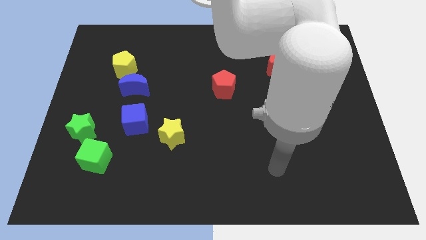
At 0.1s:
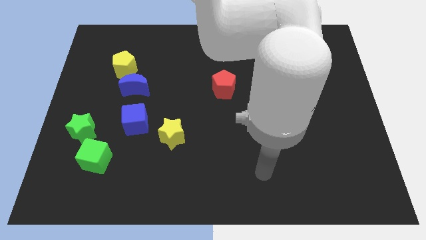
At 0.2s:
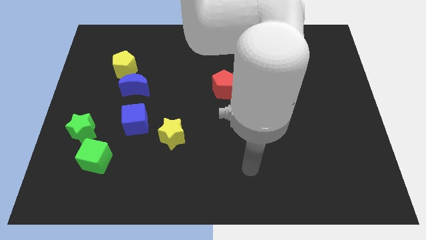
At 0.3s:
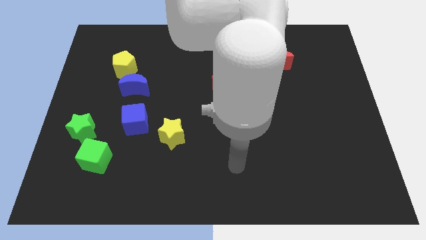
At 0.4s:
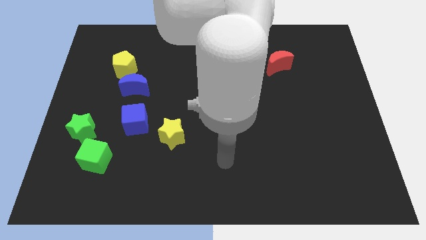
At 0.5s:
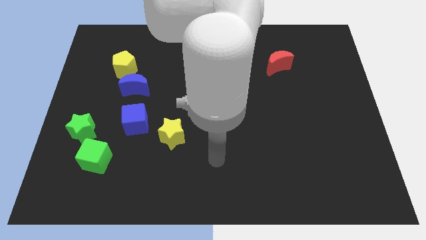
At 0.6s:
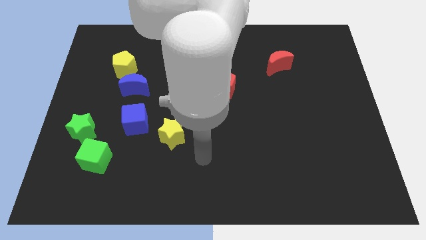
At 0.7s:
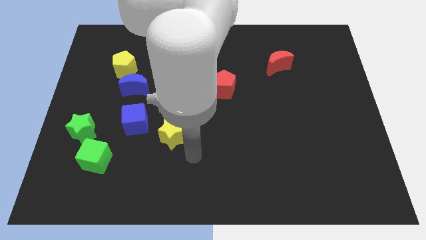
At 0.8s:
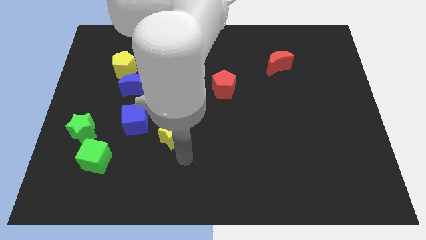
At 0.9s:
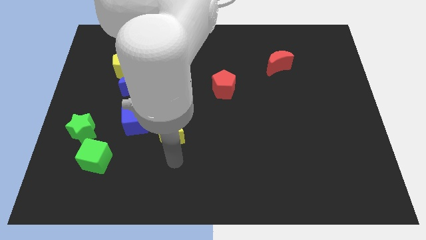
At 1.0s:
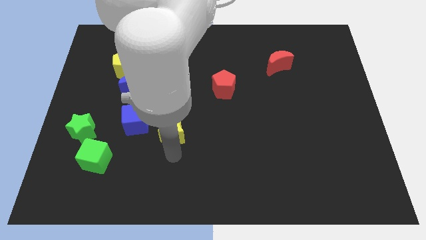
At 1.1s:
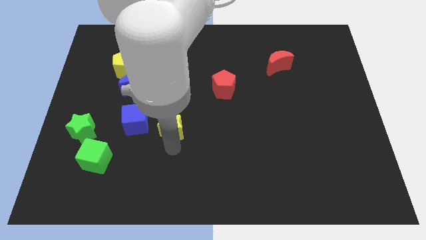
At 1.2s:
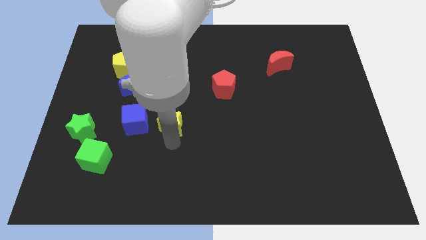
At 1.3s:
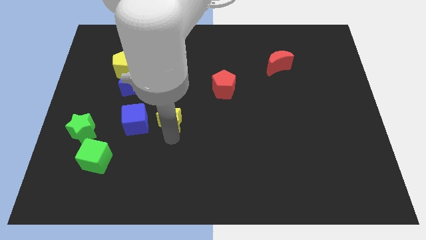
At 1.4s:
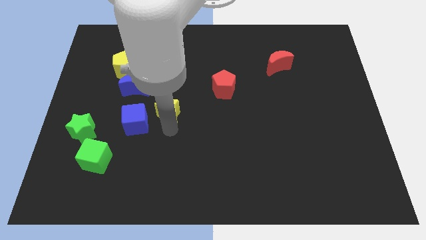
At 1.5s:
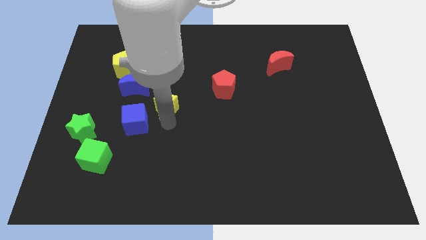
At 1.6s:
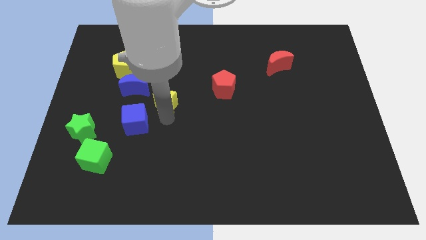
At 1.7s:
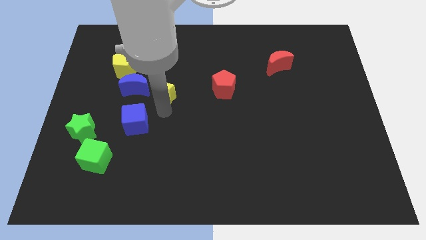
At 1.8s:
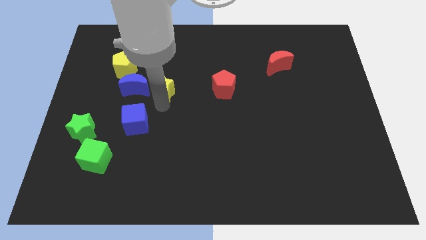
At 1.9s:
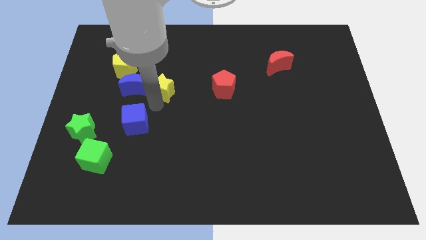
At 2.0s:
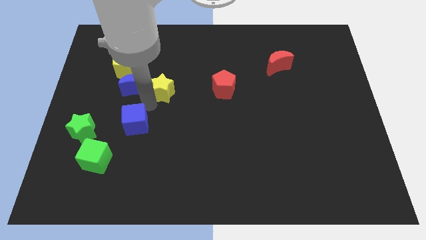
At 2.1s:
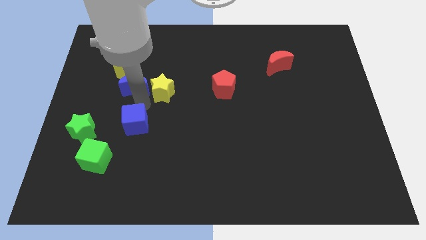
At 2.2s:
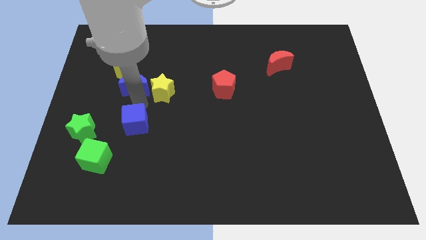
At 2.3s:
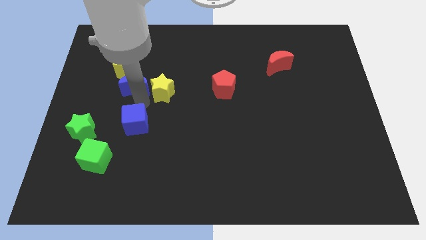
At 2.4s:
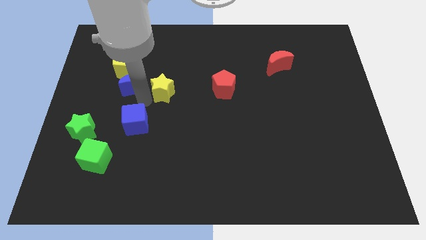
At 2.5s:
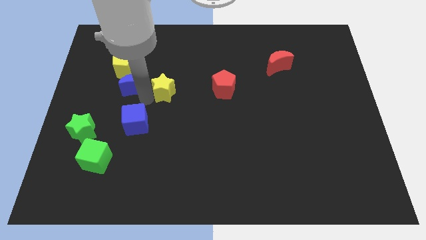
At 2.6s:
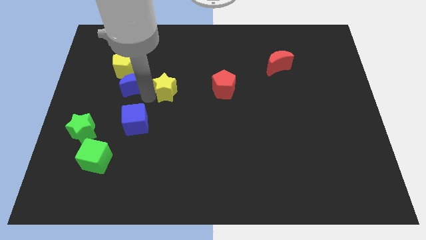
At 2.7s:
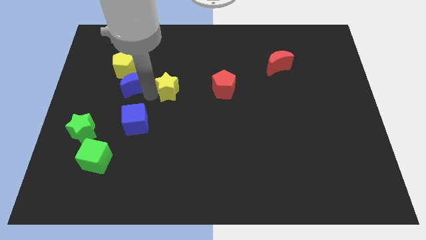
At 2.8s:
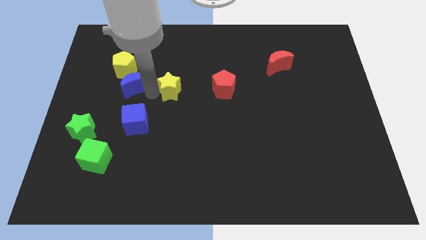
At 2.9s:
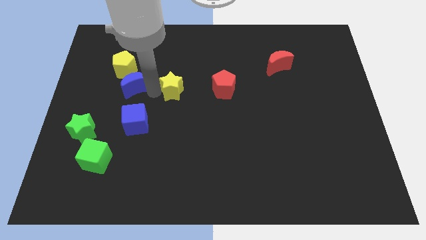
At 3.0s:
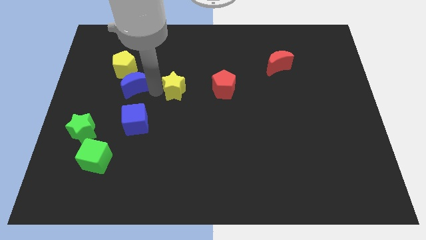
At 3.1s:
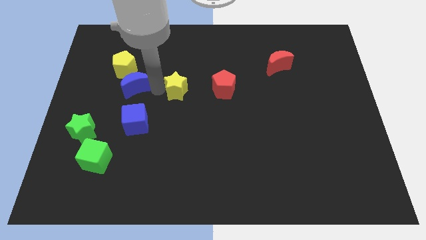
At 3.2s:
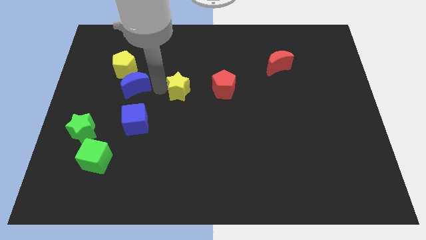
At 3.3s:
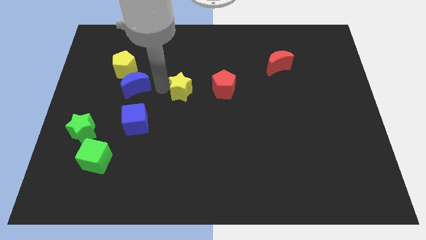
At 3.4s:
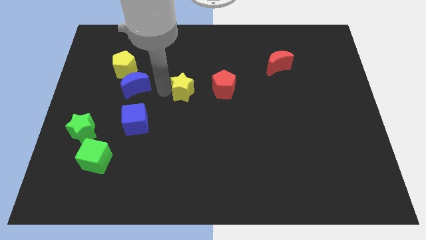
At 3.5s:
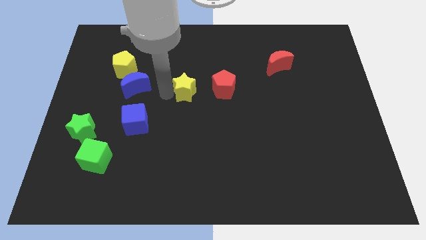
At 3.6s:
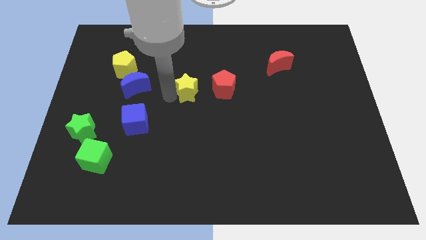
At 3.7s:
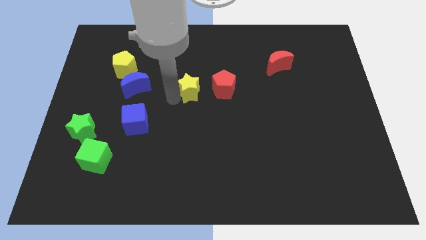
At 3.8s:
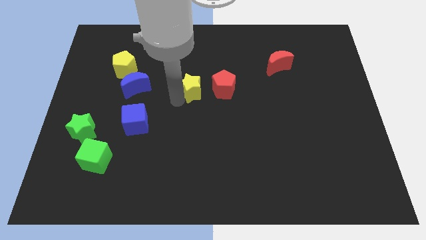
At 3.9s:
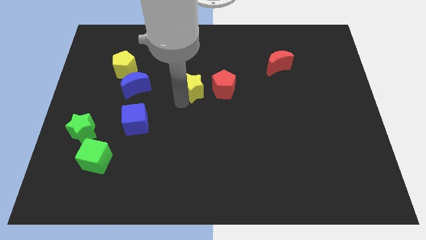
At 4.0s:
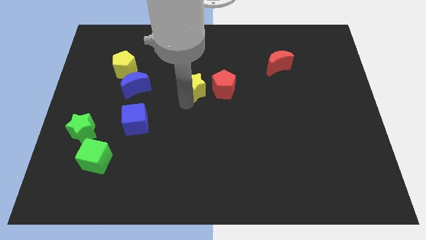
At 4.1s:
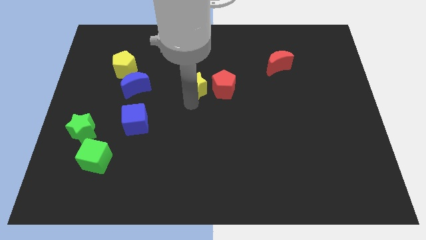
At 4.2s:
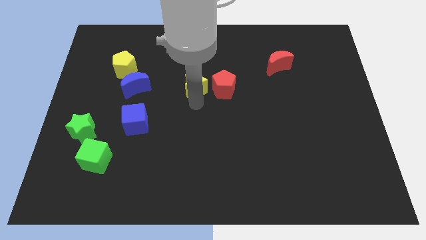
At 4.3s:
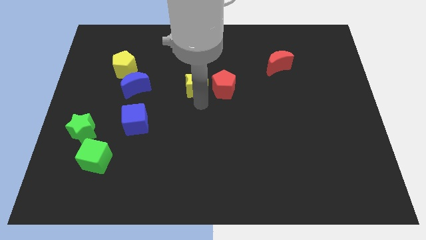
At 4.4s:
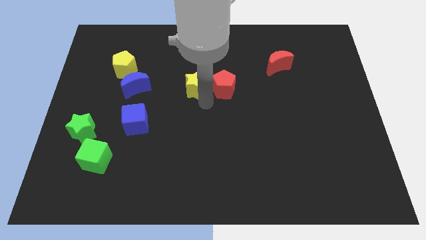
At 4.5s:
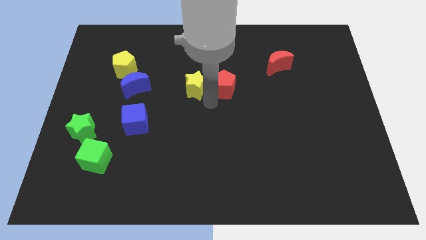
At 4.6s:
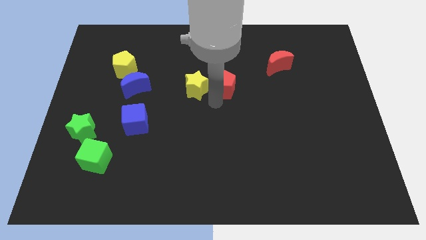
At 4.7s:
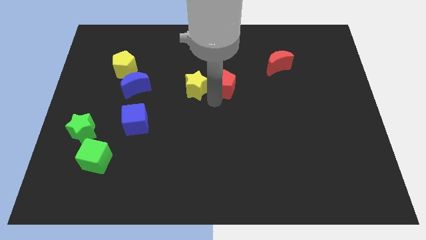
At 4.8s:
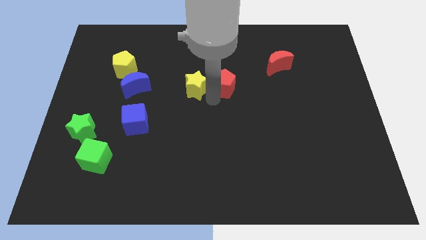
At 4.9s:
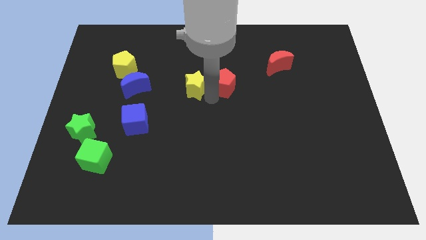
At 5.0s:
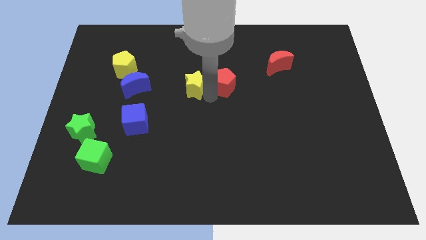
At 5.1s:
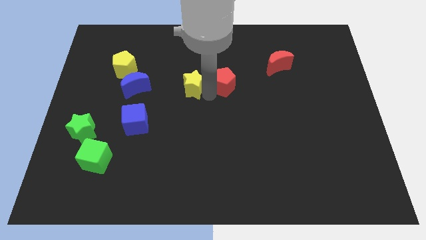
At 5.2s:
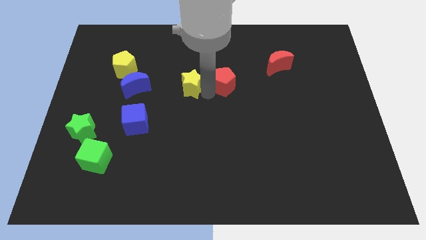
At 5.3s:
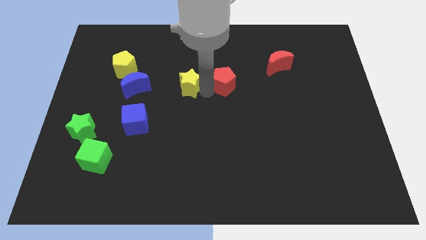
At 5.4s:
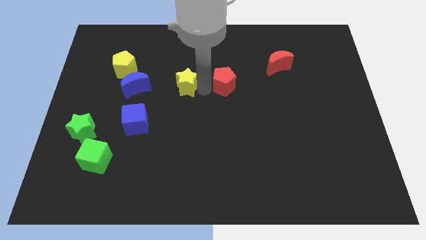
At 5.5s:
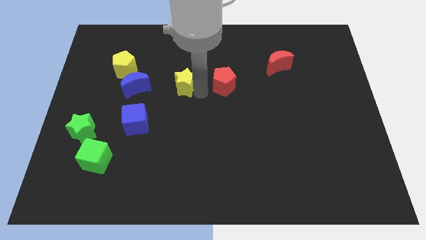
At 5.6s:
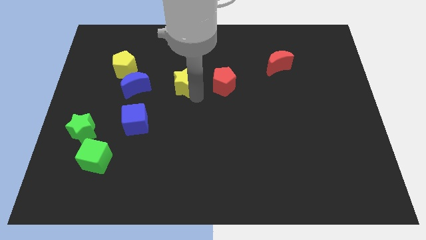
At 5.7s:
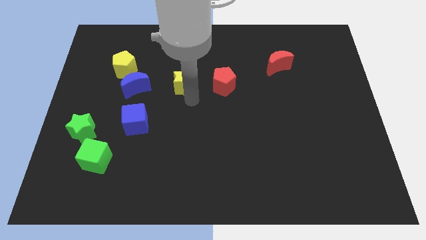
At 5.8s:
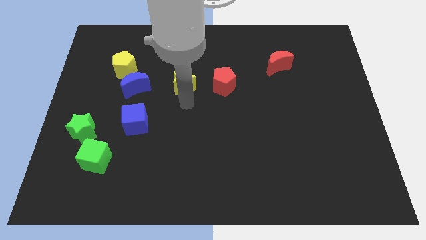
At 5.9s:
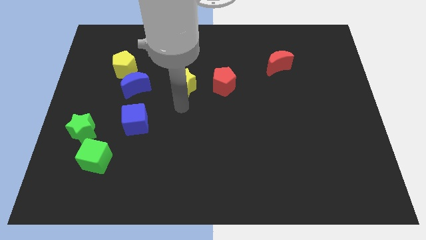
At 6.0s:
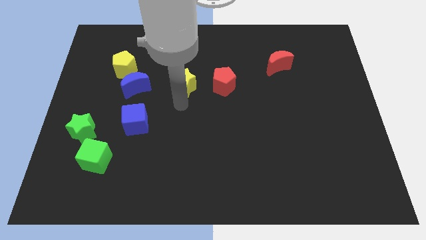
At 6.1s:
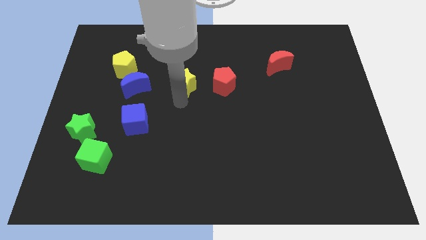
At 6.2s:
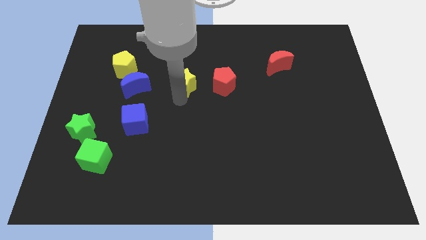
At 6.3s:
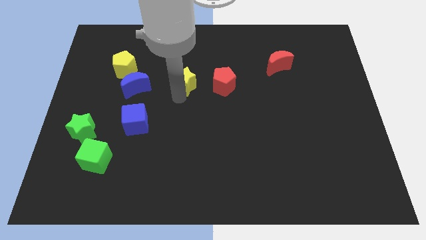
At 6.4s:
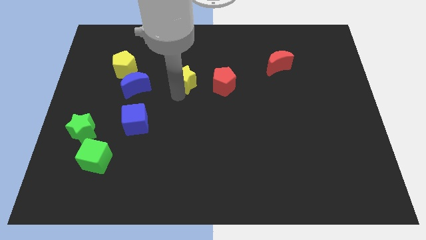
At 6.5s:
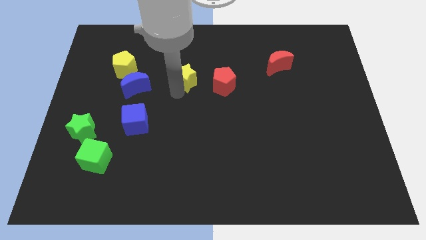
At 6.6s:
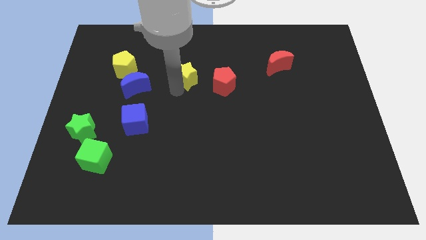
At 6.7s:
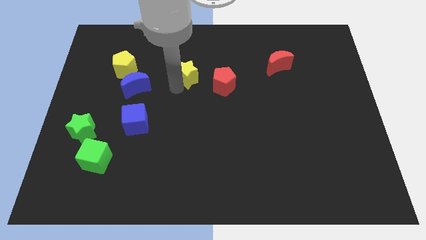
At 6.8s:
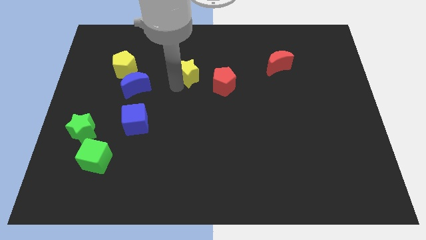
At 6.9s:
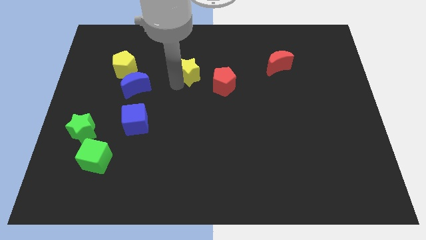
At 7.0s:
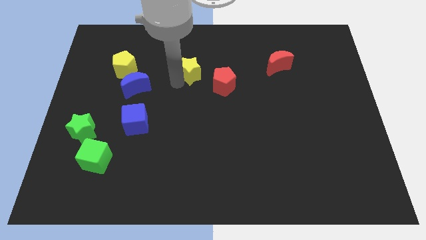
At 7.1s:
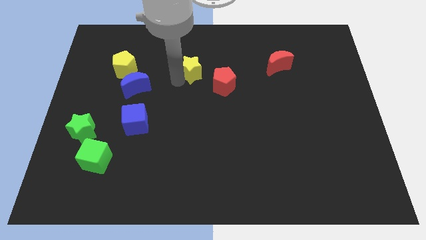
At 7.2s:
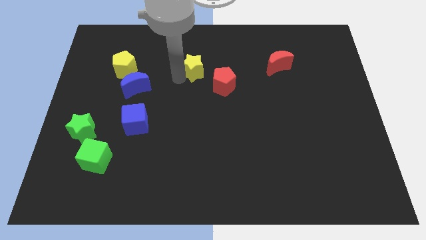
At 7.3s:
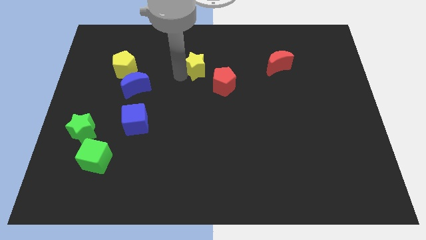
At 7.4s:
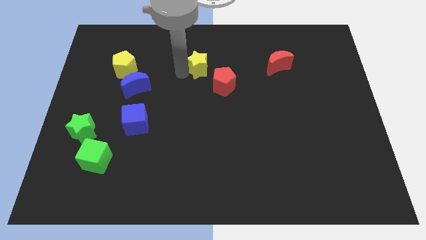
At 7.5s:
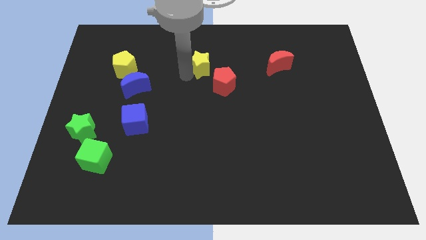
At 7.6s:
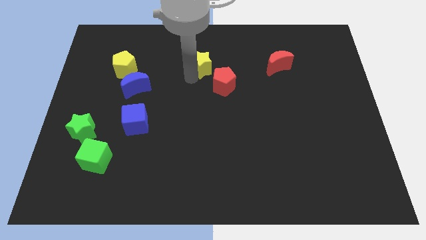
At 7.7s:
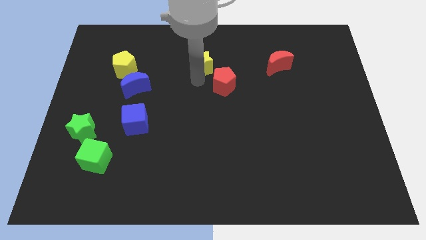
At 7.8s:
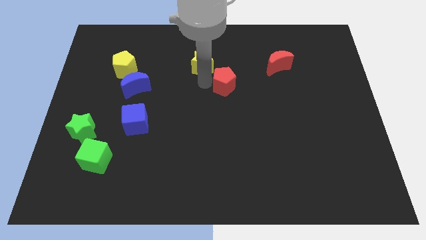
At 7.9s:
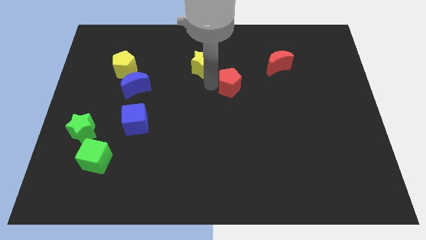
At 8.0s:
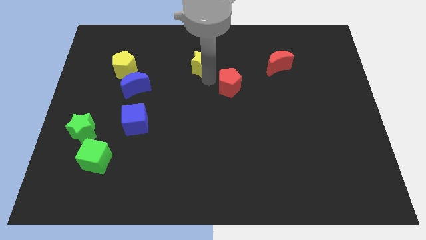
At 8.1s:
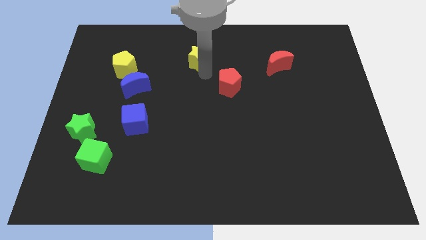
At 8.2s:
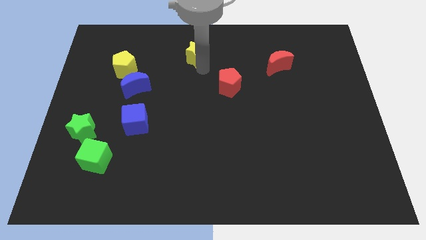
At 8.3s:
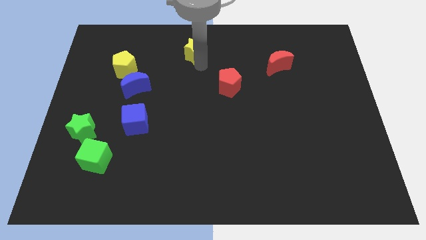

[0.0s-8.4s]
slide the yellow star to the towards your base
